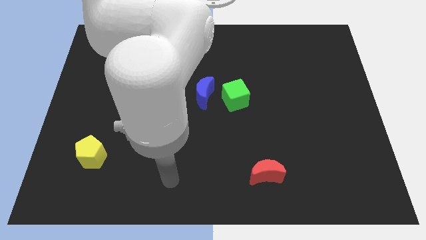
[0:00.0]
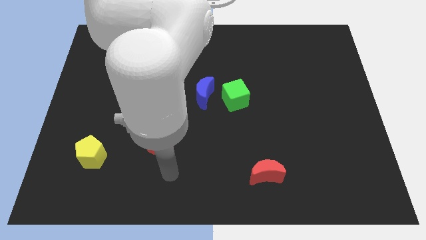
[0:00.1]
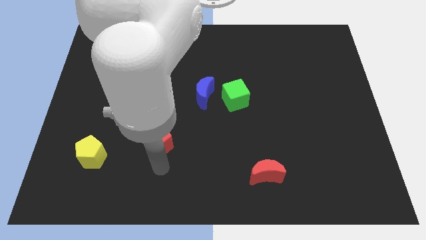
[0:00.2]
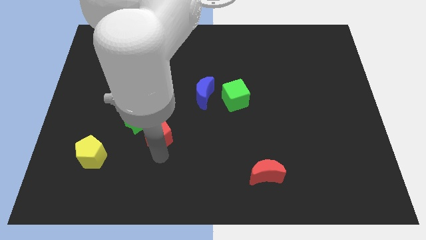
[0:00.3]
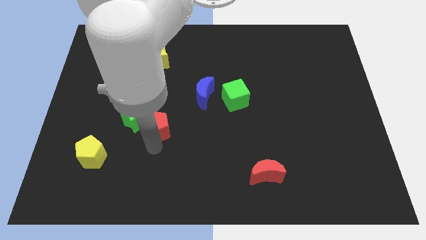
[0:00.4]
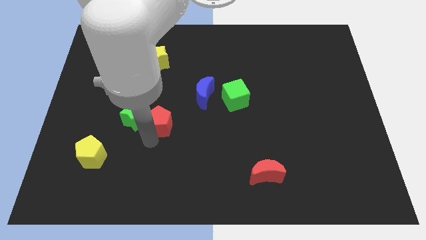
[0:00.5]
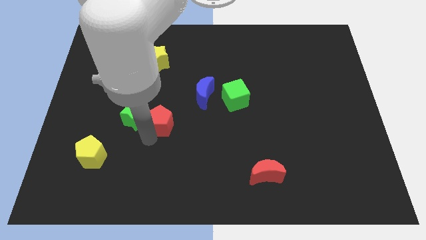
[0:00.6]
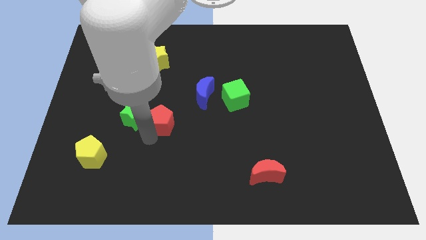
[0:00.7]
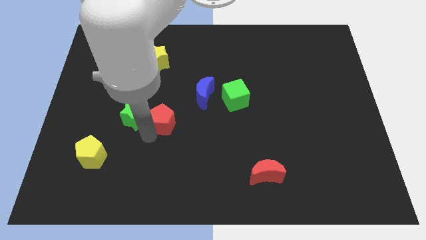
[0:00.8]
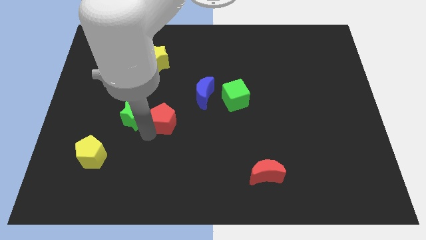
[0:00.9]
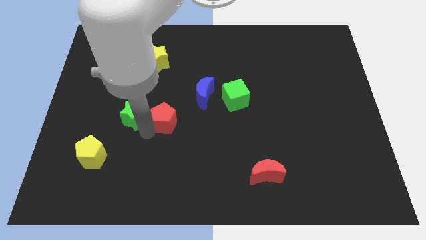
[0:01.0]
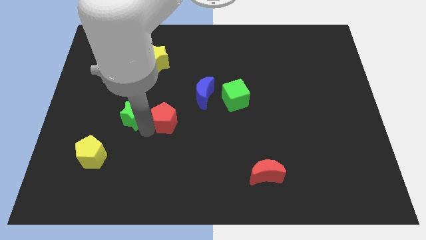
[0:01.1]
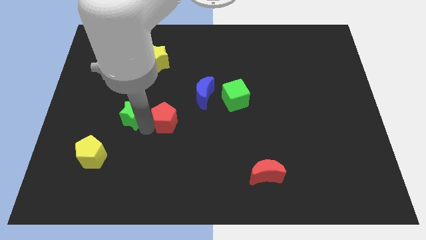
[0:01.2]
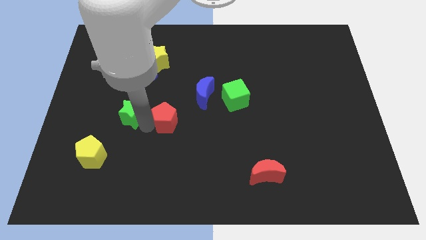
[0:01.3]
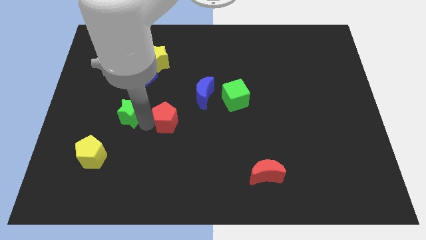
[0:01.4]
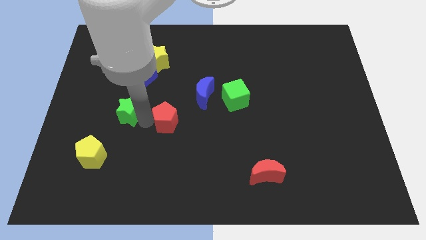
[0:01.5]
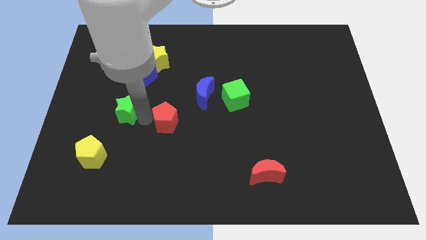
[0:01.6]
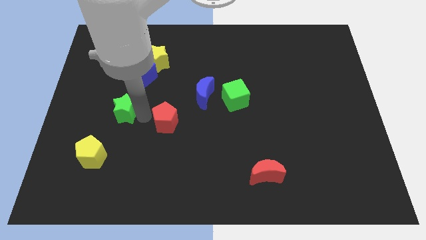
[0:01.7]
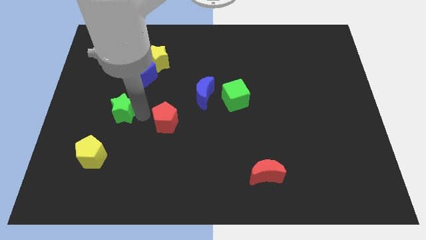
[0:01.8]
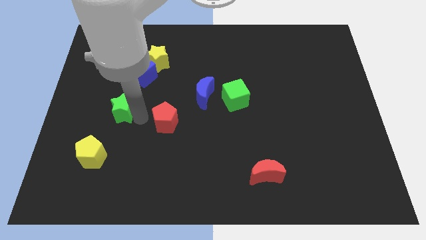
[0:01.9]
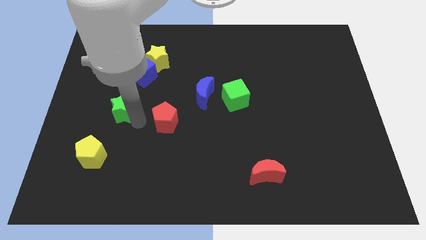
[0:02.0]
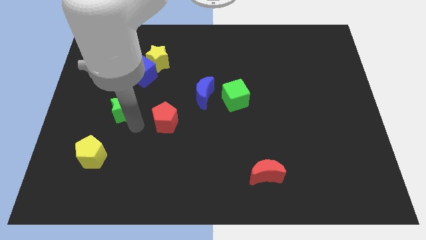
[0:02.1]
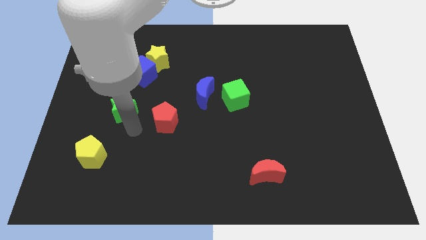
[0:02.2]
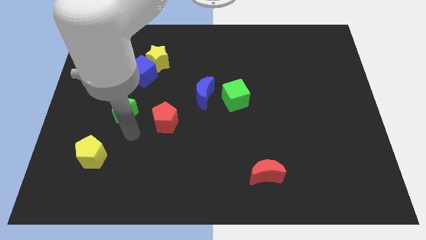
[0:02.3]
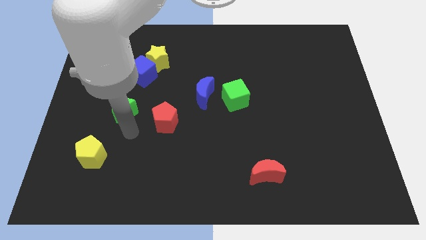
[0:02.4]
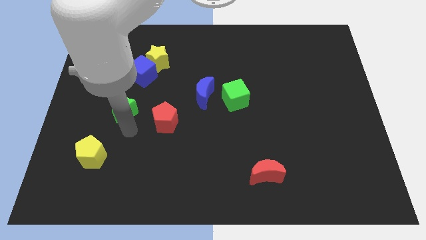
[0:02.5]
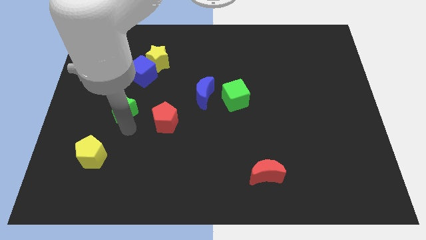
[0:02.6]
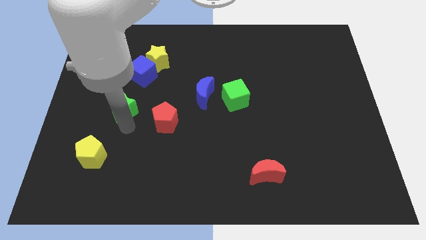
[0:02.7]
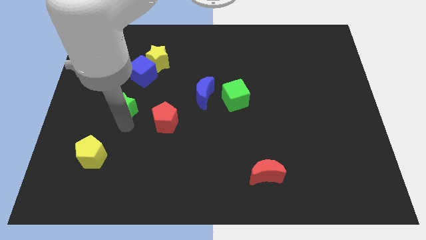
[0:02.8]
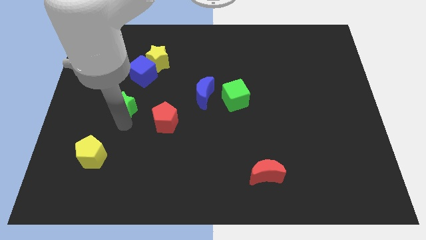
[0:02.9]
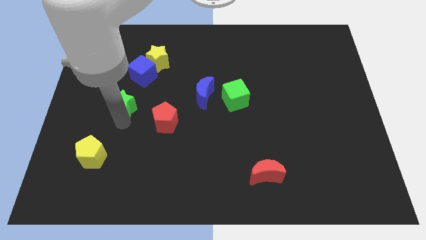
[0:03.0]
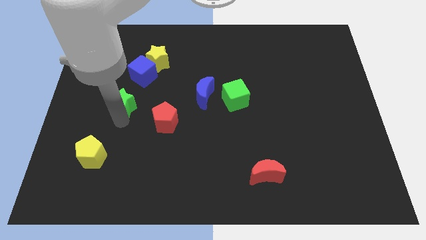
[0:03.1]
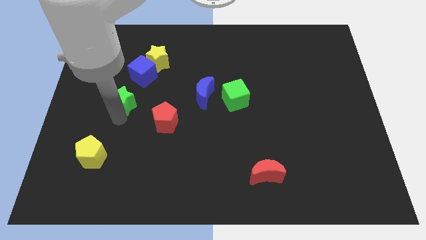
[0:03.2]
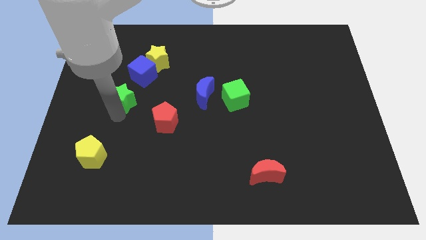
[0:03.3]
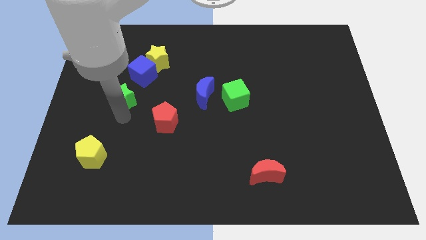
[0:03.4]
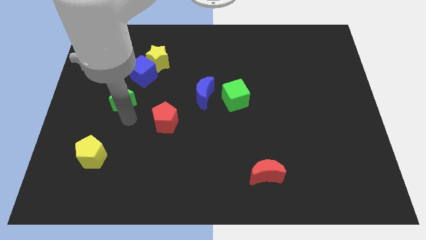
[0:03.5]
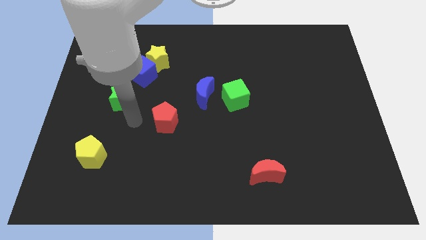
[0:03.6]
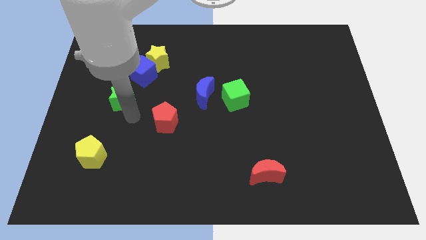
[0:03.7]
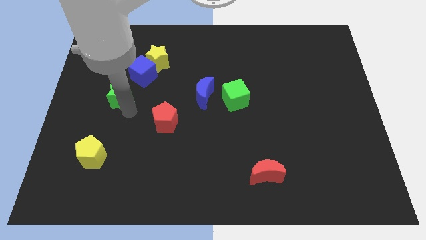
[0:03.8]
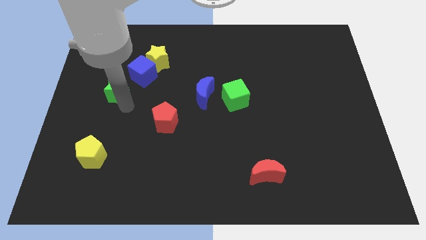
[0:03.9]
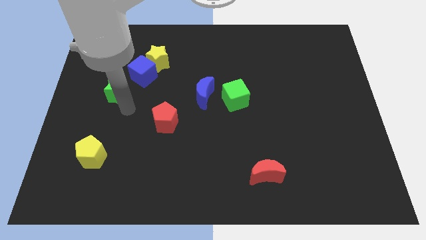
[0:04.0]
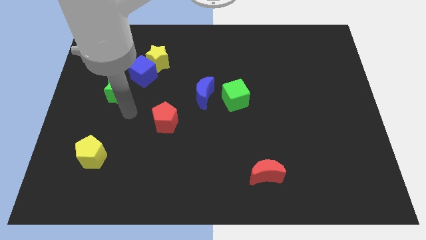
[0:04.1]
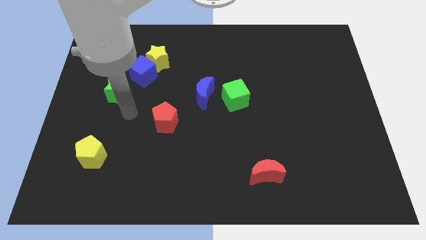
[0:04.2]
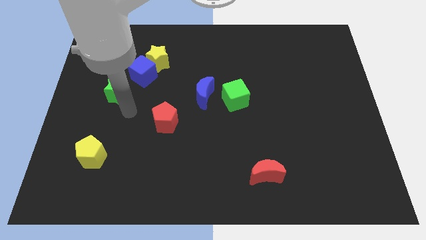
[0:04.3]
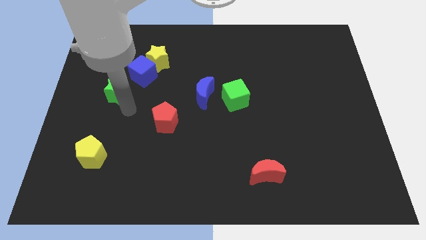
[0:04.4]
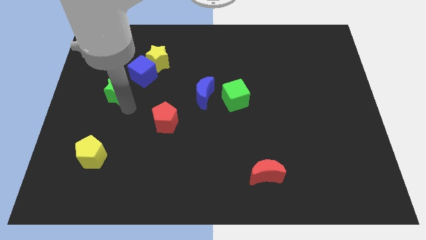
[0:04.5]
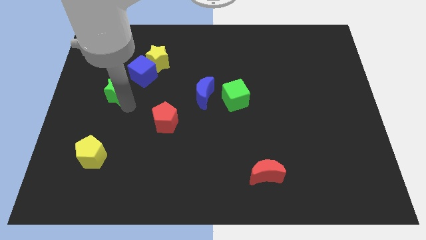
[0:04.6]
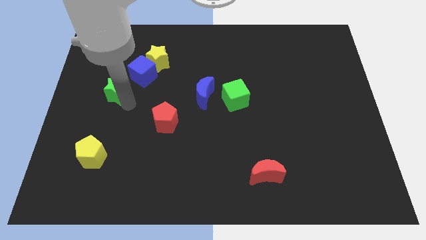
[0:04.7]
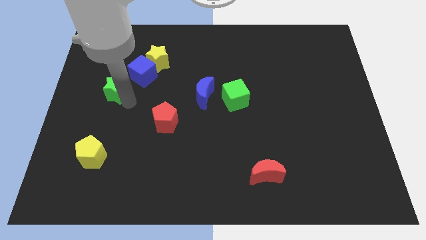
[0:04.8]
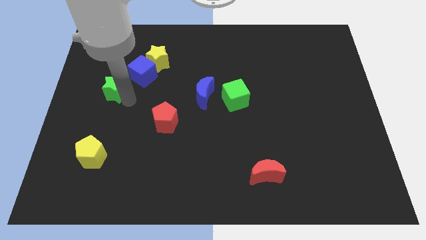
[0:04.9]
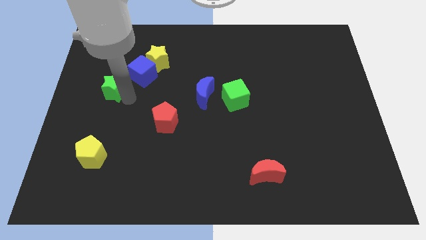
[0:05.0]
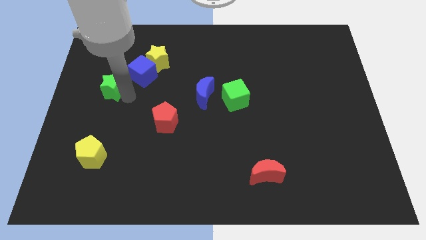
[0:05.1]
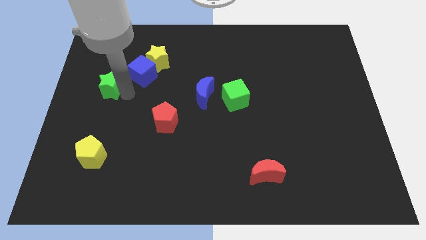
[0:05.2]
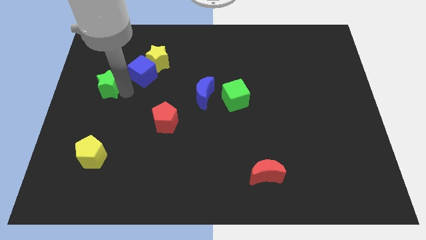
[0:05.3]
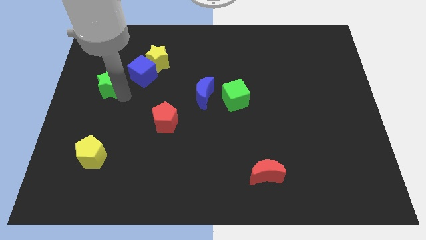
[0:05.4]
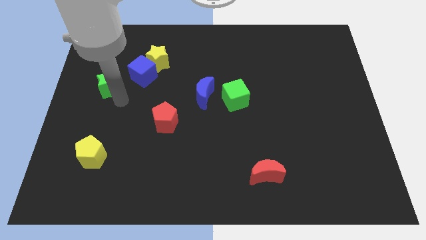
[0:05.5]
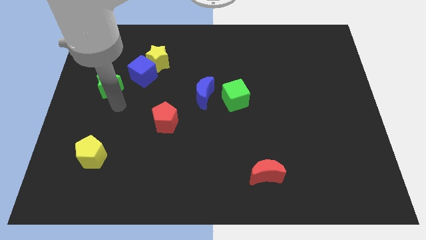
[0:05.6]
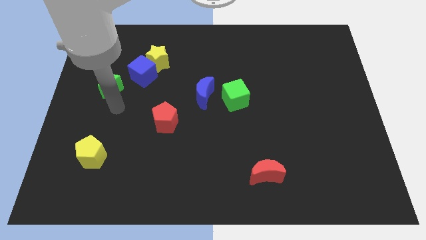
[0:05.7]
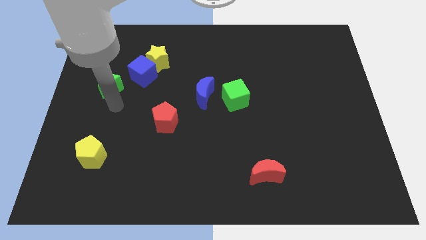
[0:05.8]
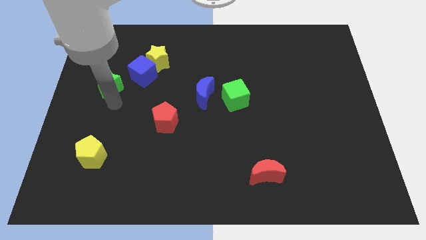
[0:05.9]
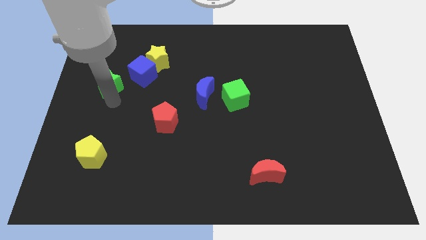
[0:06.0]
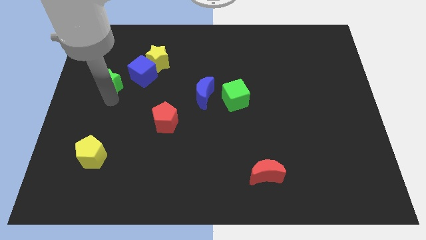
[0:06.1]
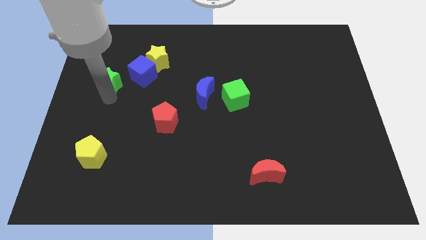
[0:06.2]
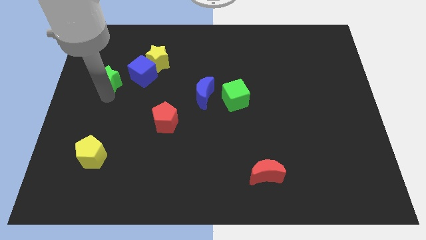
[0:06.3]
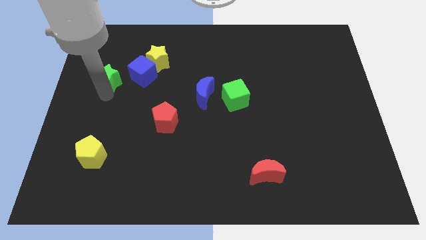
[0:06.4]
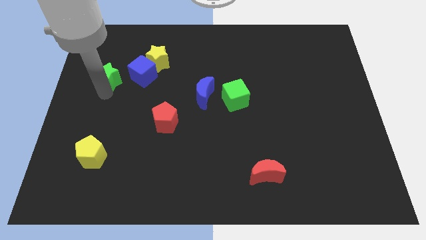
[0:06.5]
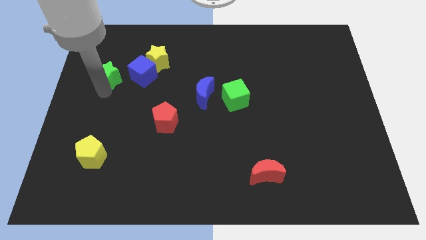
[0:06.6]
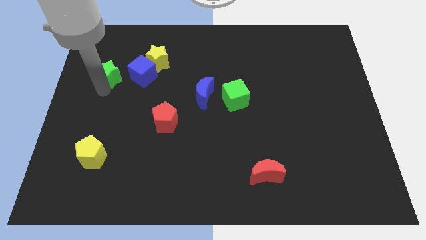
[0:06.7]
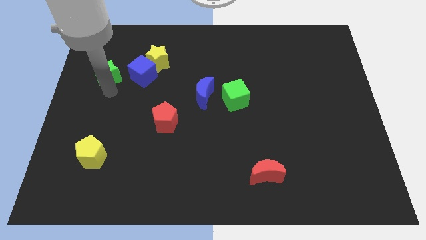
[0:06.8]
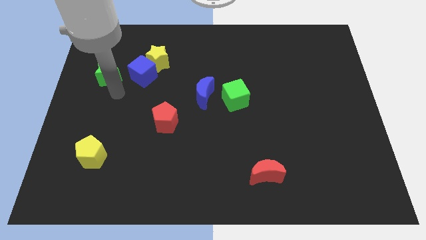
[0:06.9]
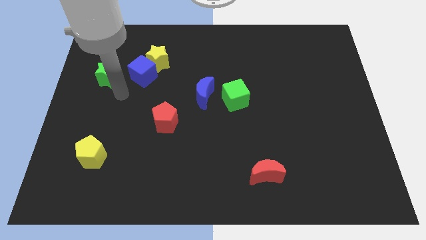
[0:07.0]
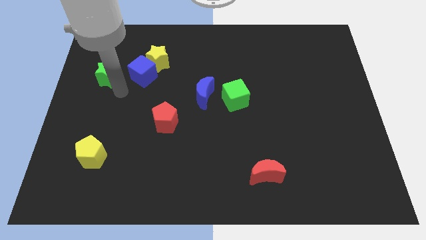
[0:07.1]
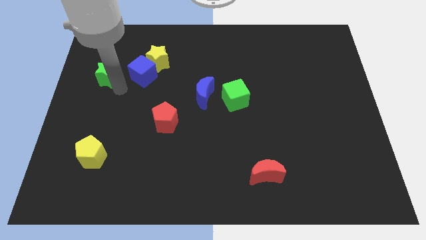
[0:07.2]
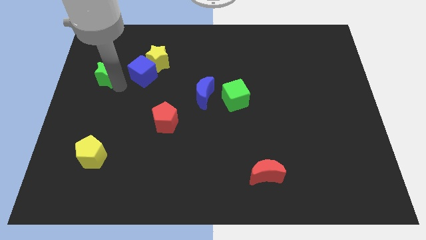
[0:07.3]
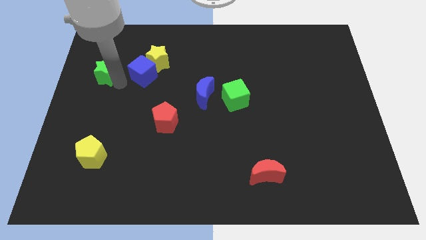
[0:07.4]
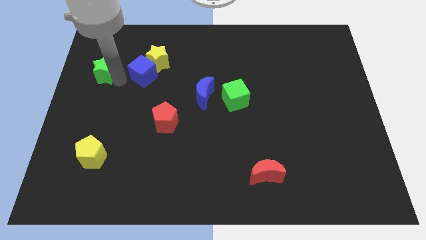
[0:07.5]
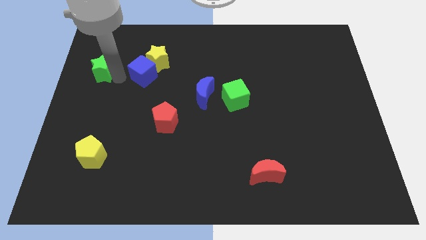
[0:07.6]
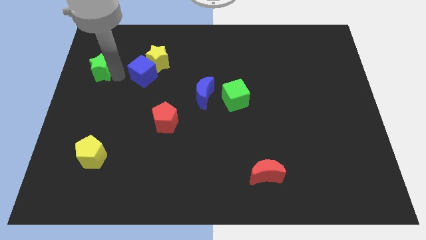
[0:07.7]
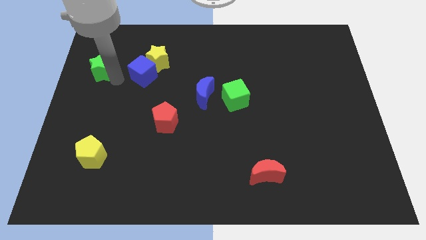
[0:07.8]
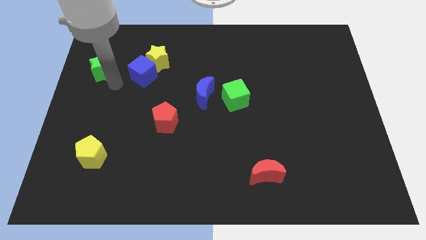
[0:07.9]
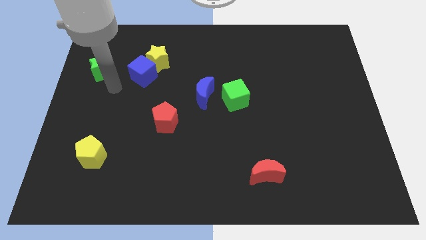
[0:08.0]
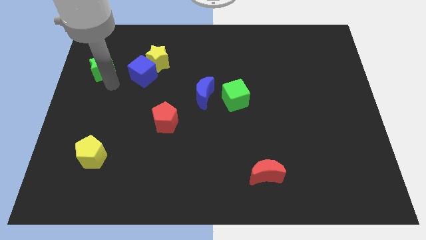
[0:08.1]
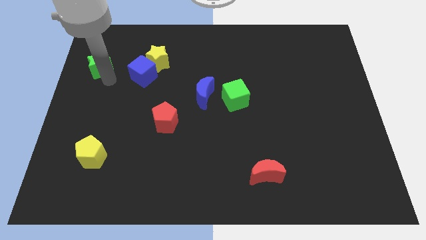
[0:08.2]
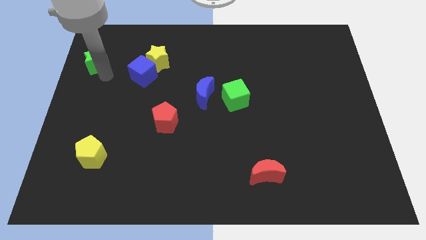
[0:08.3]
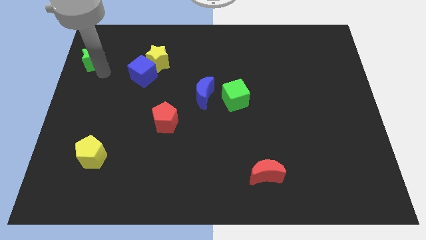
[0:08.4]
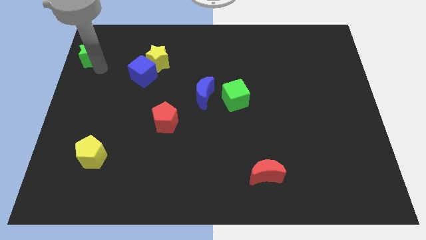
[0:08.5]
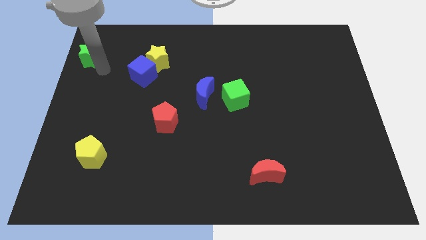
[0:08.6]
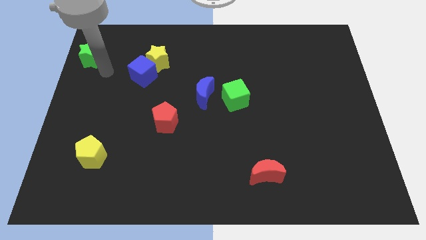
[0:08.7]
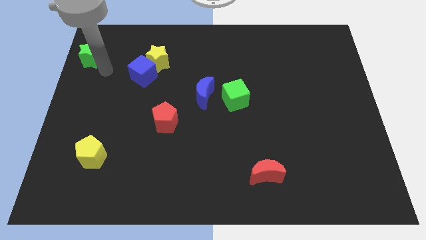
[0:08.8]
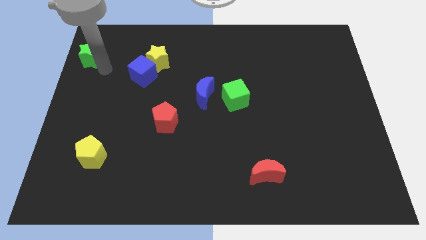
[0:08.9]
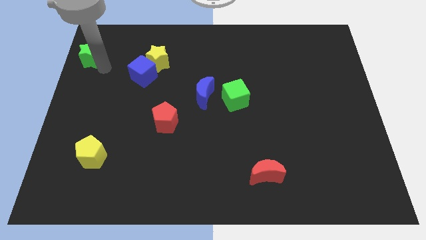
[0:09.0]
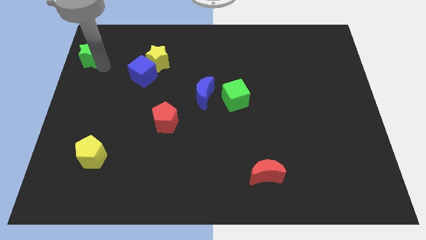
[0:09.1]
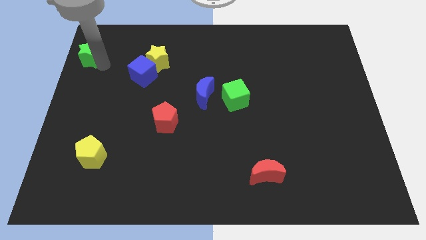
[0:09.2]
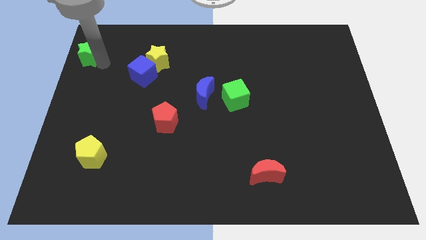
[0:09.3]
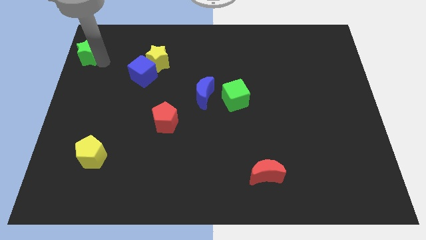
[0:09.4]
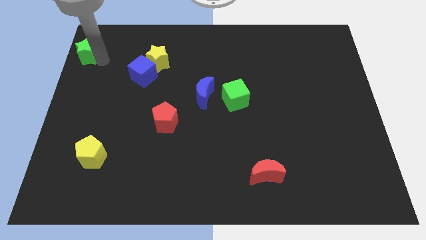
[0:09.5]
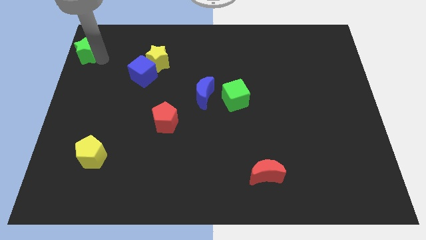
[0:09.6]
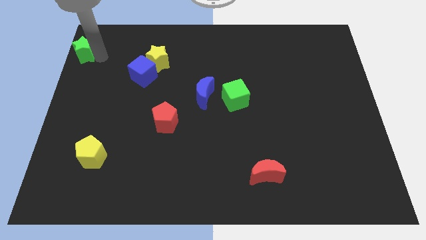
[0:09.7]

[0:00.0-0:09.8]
put the green star to the top left
